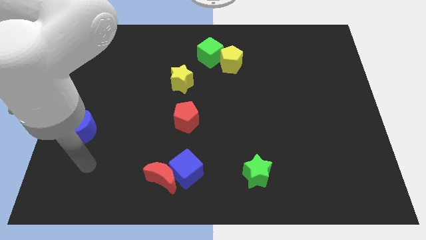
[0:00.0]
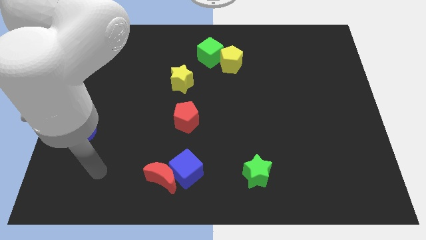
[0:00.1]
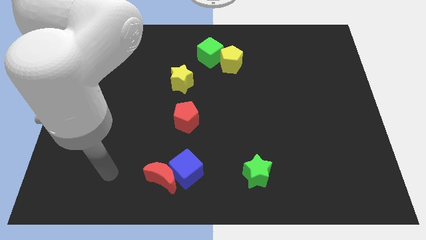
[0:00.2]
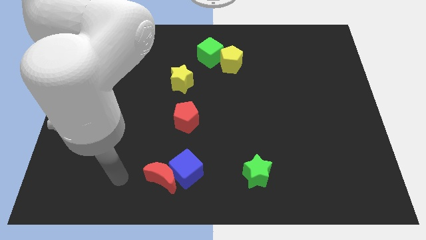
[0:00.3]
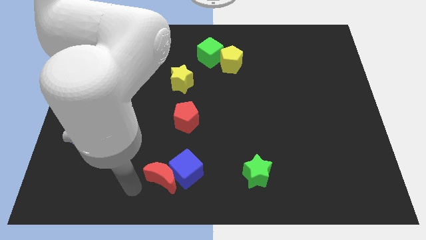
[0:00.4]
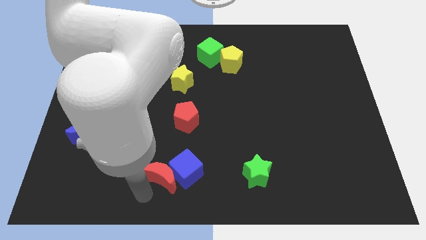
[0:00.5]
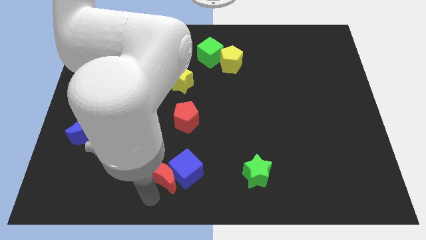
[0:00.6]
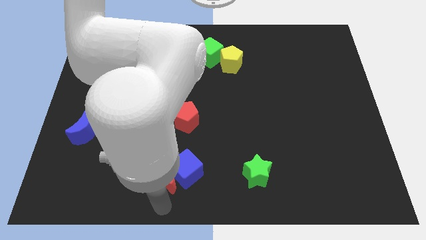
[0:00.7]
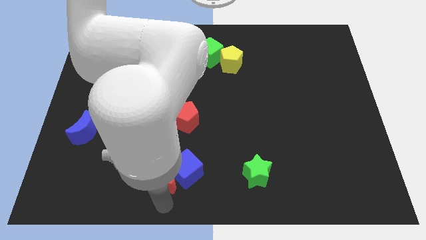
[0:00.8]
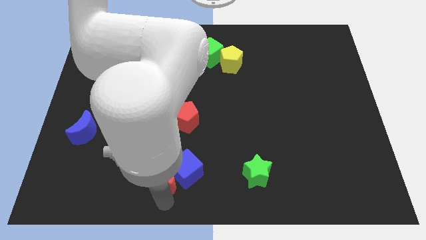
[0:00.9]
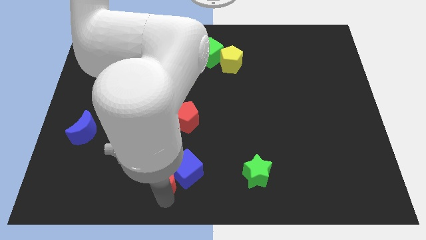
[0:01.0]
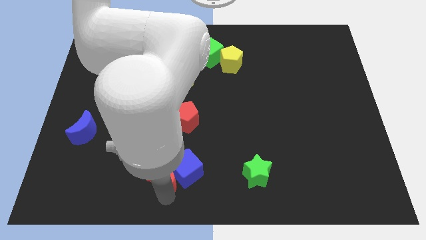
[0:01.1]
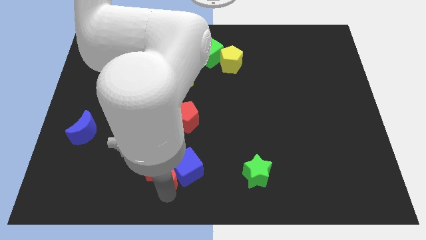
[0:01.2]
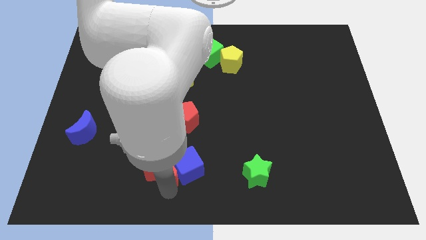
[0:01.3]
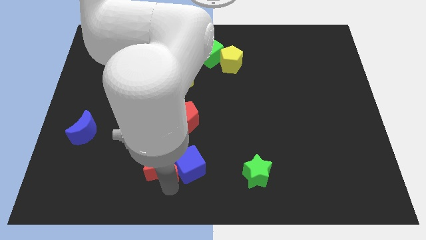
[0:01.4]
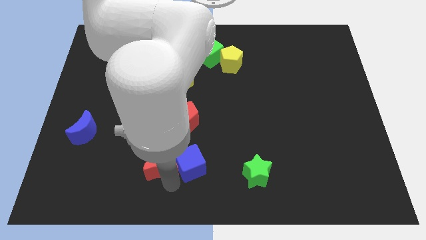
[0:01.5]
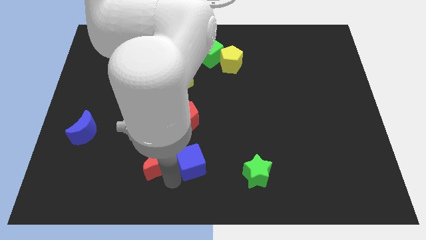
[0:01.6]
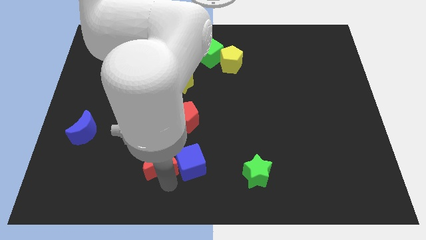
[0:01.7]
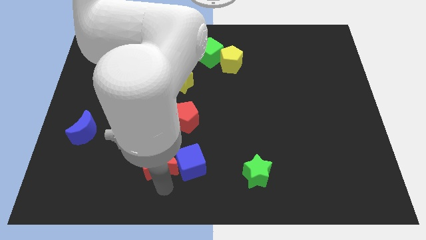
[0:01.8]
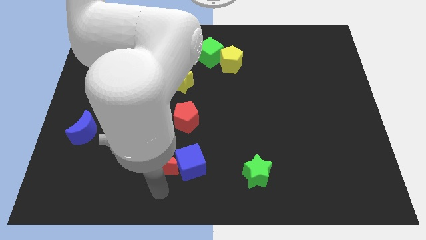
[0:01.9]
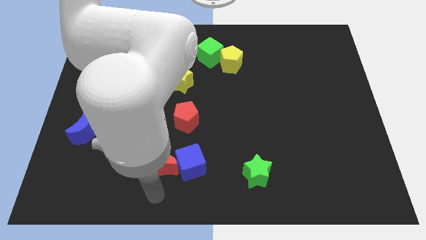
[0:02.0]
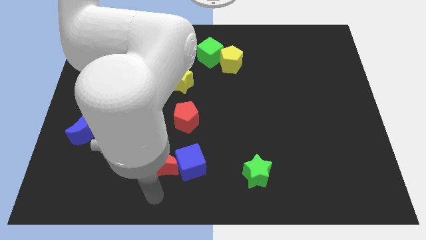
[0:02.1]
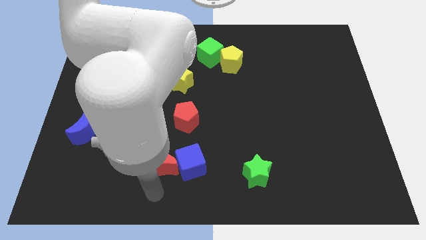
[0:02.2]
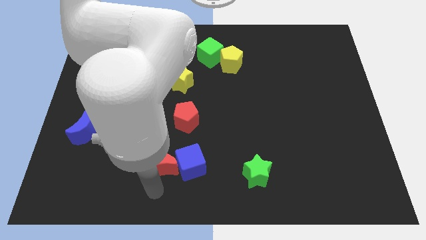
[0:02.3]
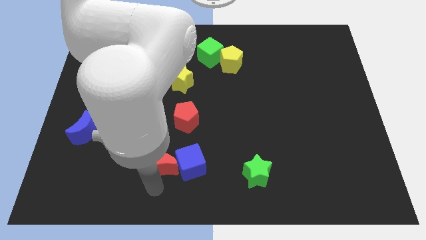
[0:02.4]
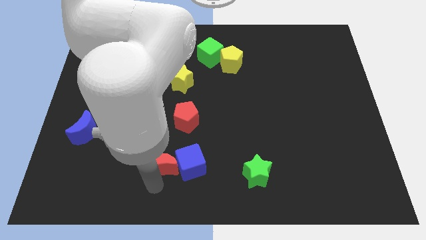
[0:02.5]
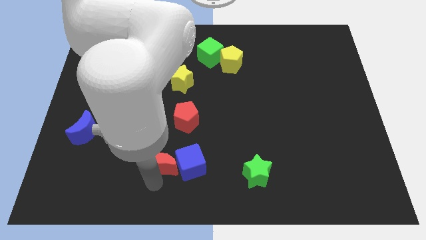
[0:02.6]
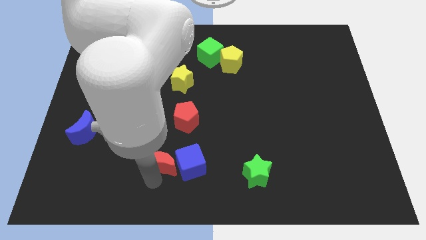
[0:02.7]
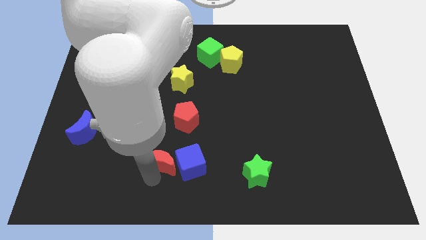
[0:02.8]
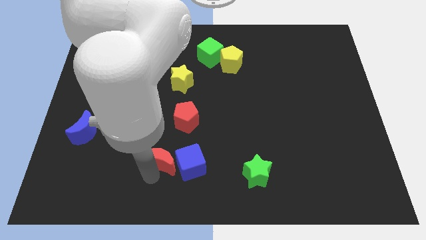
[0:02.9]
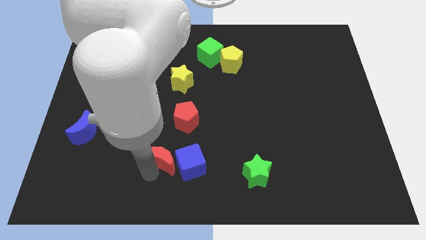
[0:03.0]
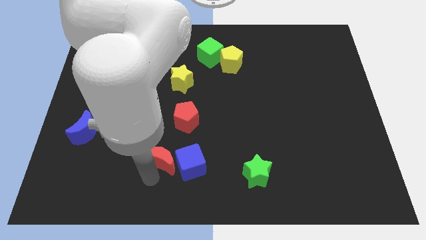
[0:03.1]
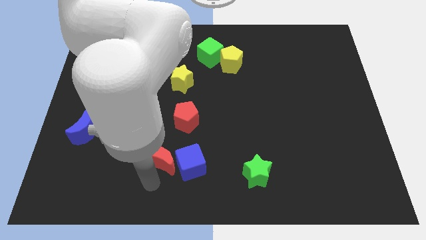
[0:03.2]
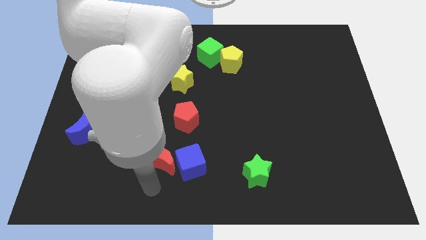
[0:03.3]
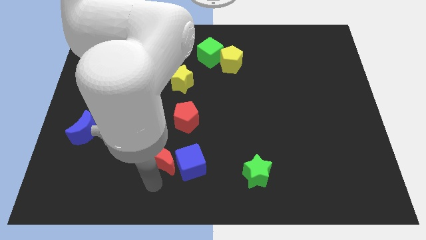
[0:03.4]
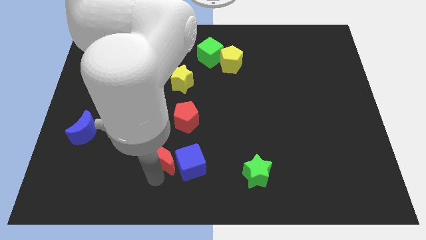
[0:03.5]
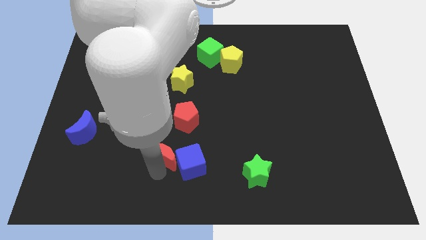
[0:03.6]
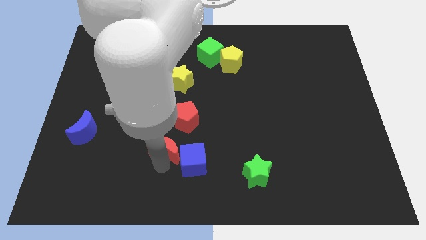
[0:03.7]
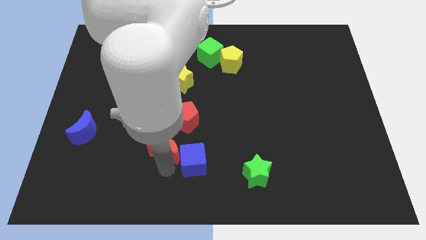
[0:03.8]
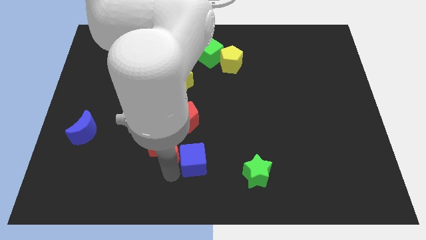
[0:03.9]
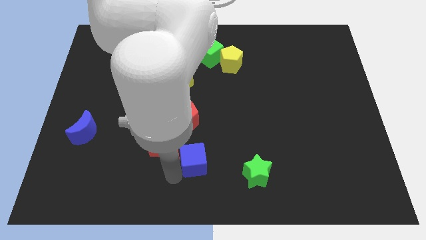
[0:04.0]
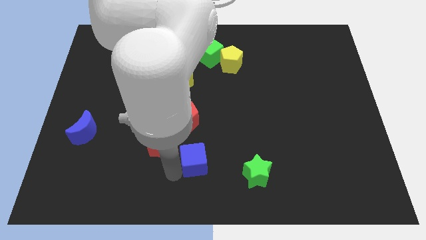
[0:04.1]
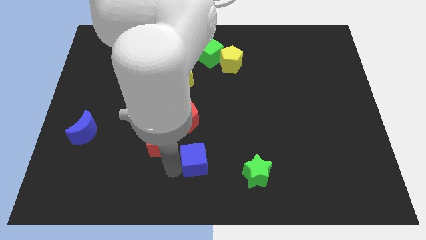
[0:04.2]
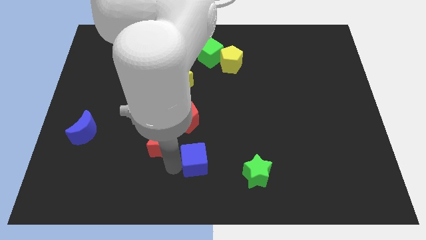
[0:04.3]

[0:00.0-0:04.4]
slightly push the red moon upwards

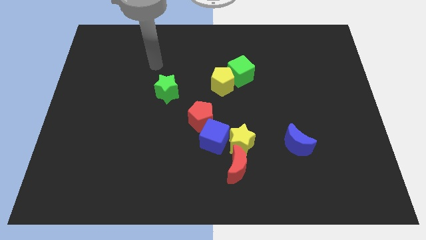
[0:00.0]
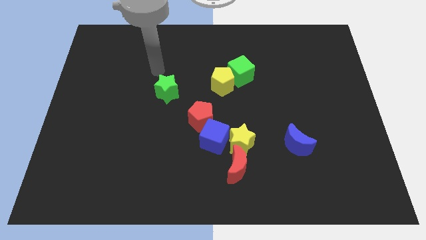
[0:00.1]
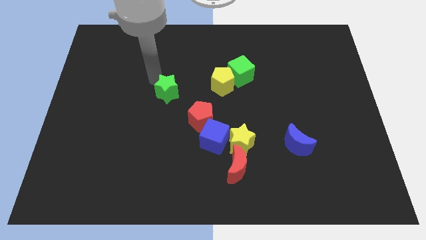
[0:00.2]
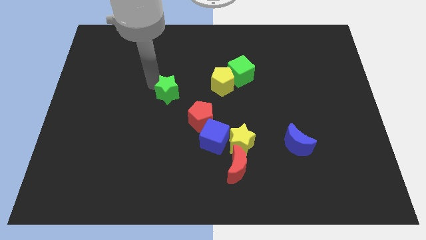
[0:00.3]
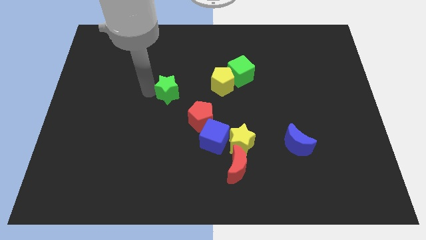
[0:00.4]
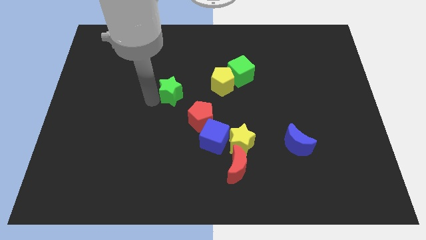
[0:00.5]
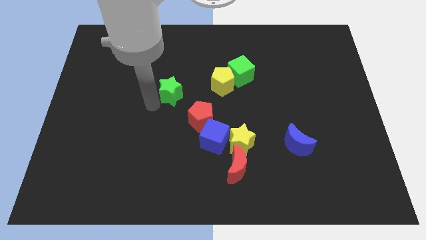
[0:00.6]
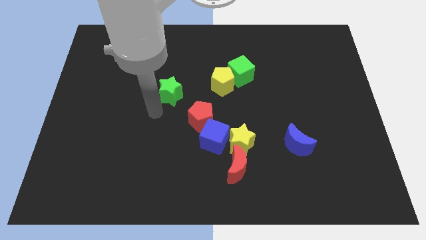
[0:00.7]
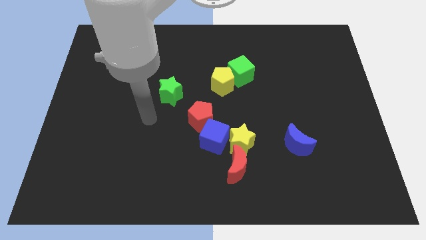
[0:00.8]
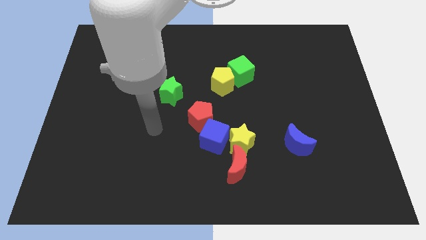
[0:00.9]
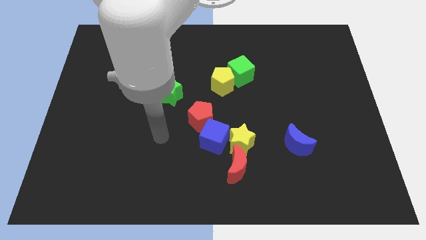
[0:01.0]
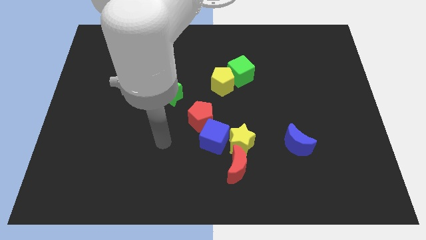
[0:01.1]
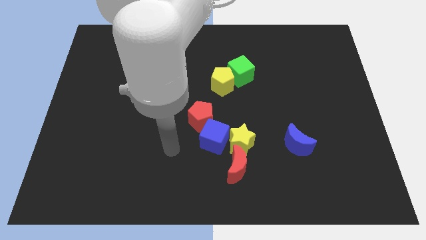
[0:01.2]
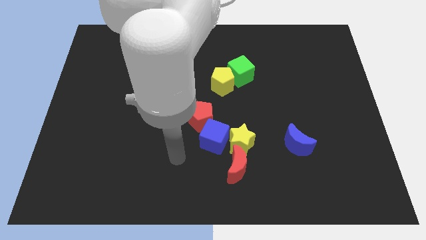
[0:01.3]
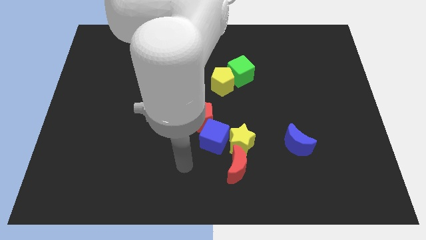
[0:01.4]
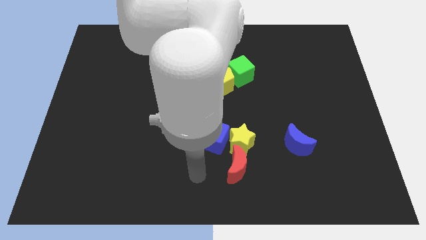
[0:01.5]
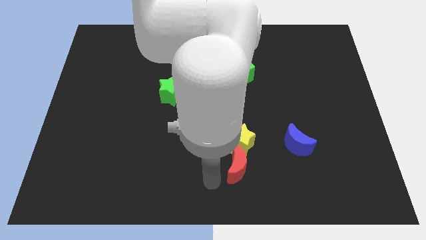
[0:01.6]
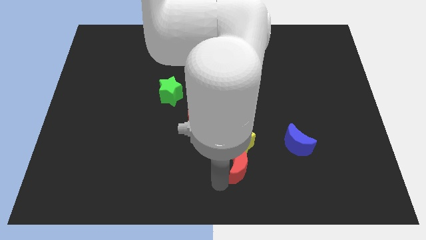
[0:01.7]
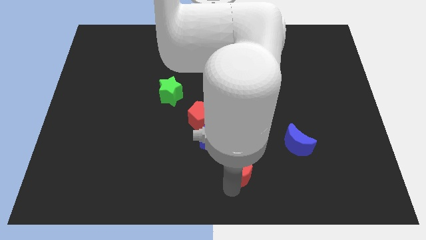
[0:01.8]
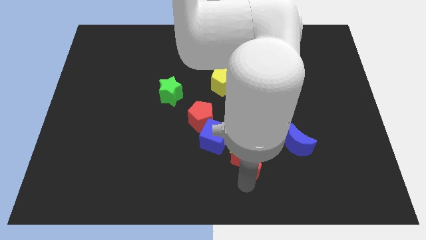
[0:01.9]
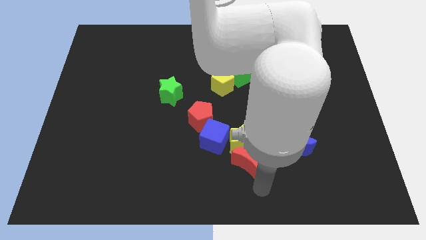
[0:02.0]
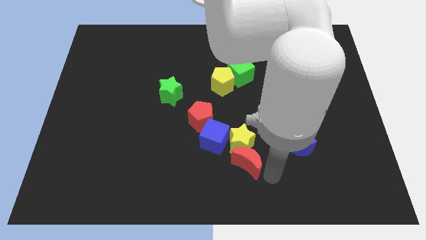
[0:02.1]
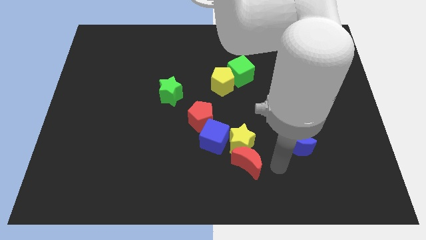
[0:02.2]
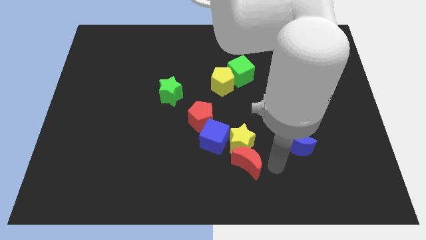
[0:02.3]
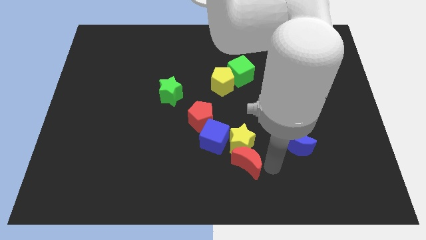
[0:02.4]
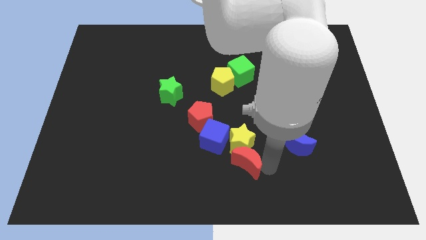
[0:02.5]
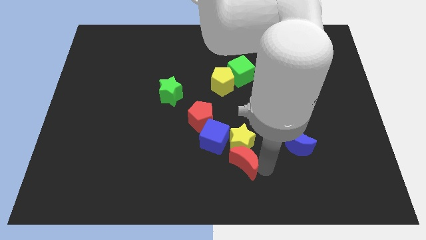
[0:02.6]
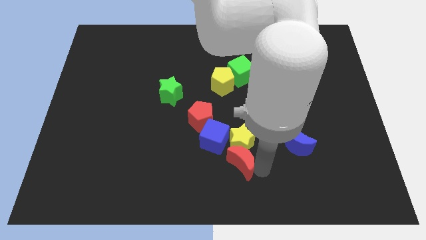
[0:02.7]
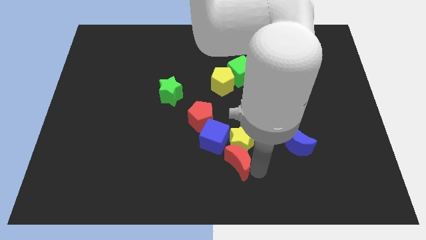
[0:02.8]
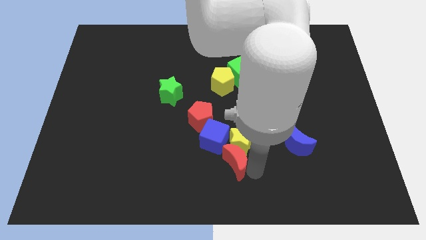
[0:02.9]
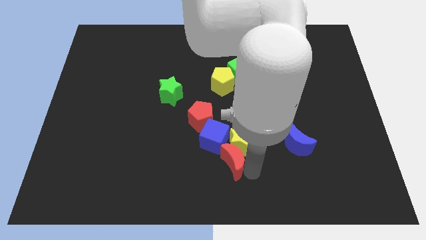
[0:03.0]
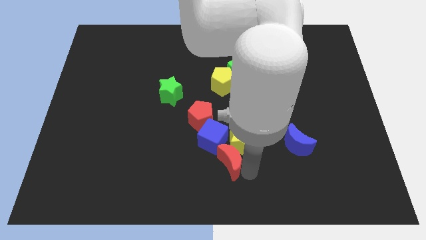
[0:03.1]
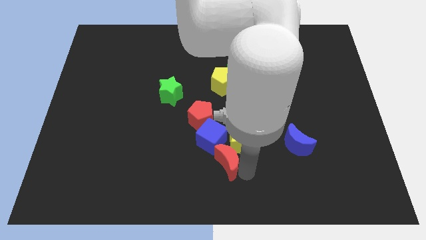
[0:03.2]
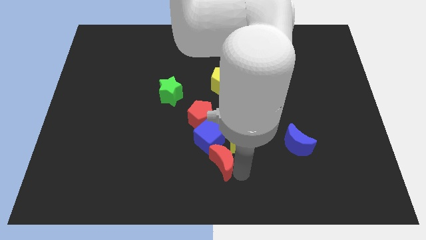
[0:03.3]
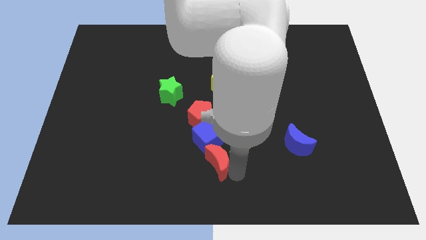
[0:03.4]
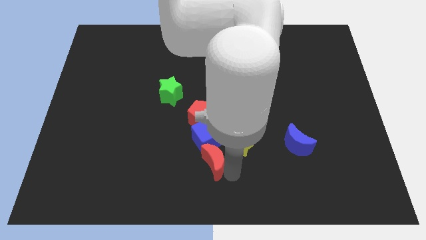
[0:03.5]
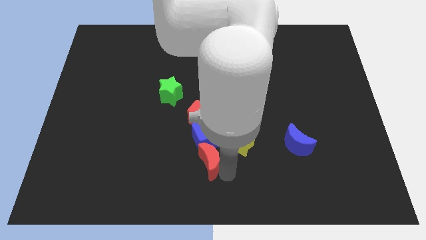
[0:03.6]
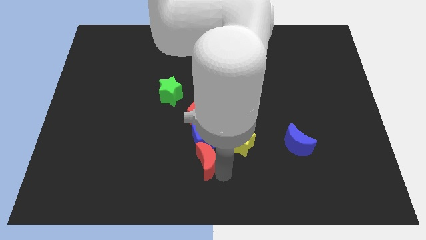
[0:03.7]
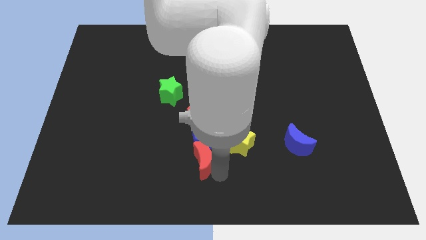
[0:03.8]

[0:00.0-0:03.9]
slide the red moon slightly to the left

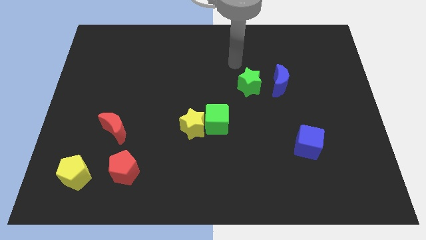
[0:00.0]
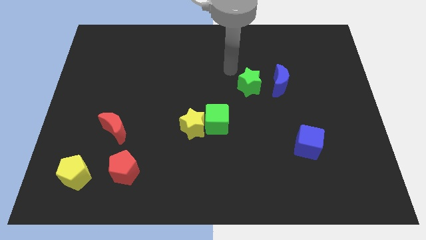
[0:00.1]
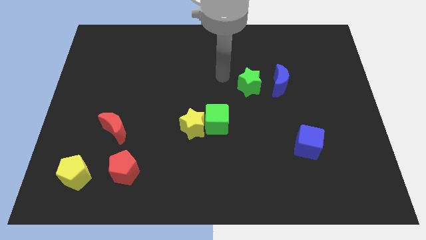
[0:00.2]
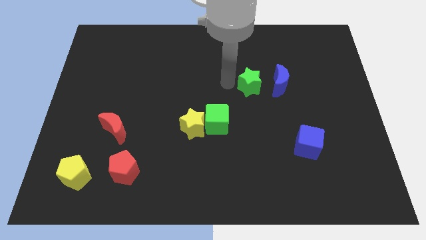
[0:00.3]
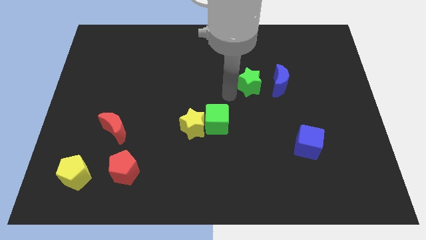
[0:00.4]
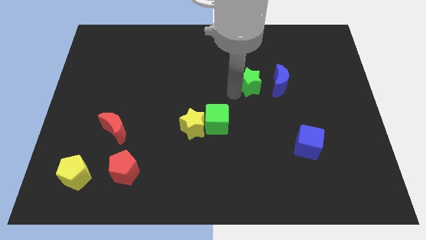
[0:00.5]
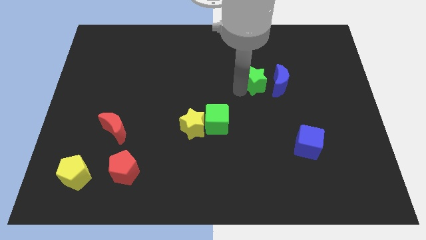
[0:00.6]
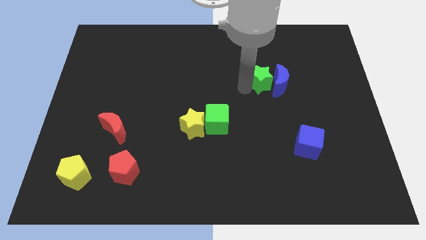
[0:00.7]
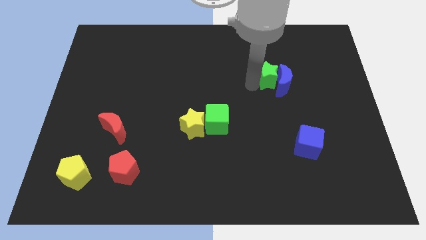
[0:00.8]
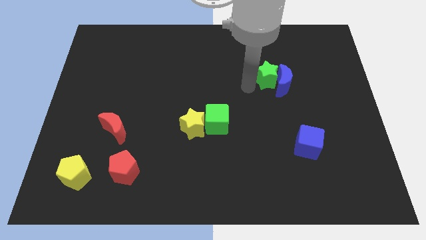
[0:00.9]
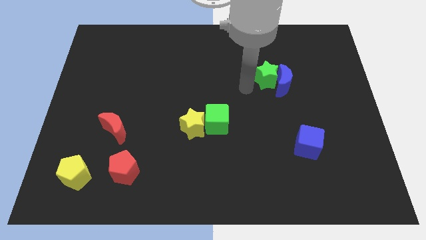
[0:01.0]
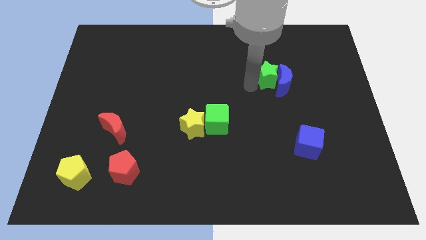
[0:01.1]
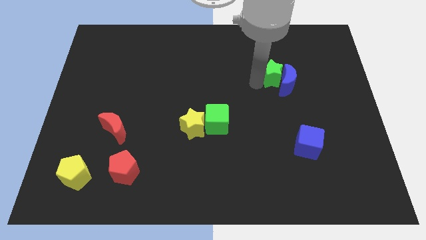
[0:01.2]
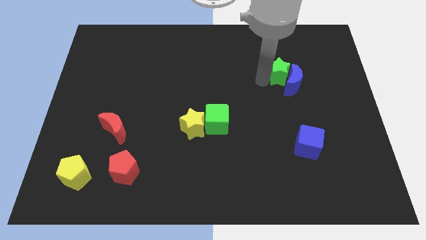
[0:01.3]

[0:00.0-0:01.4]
slightly move the green star to the right
